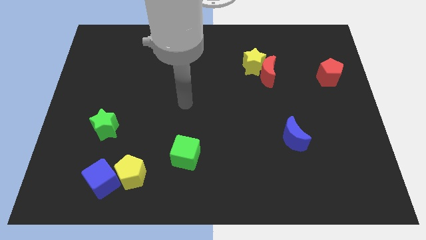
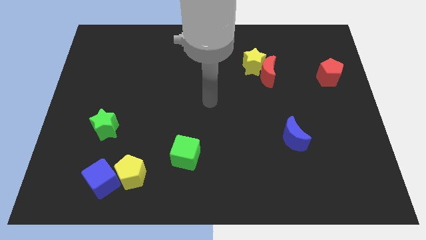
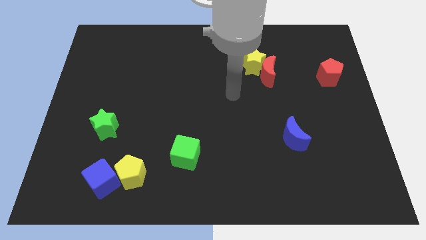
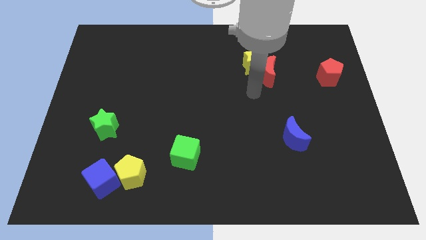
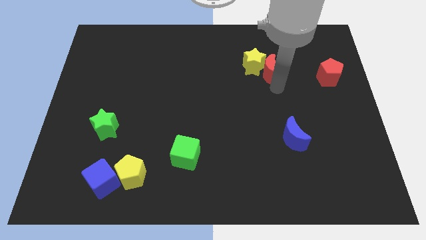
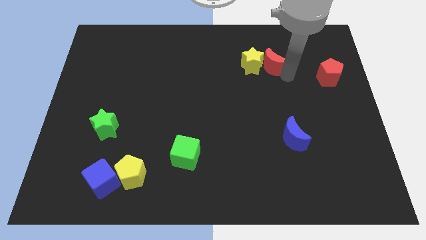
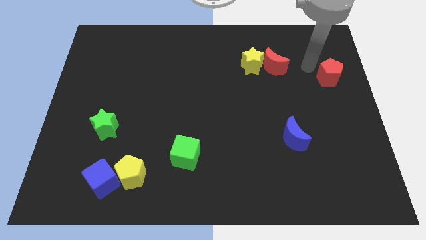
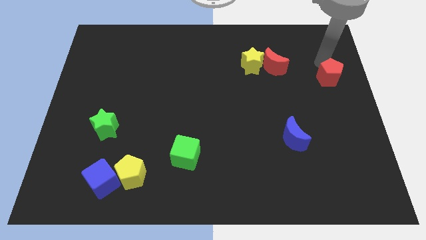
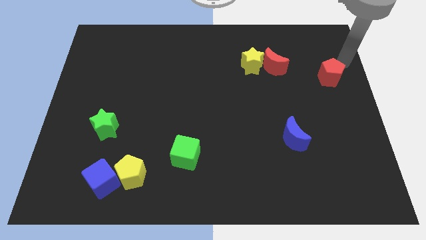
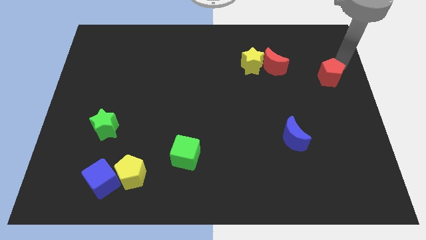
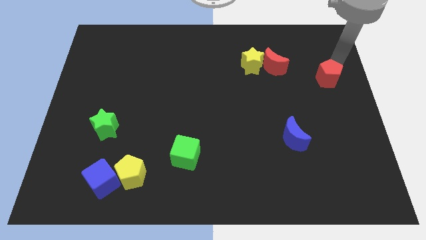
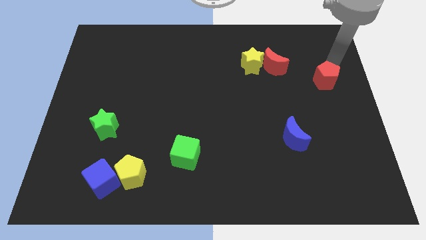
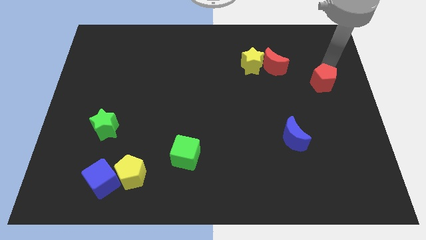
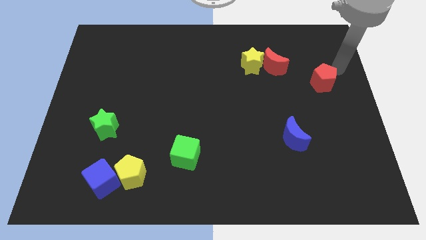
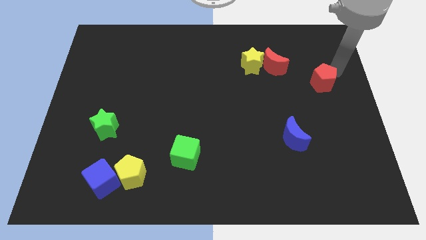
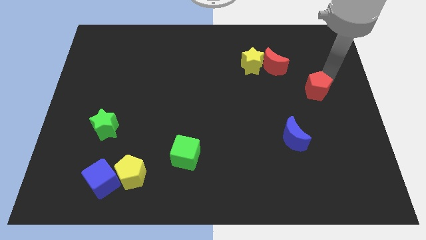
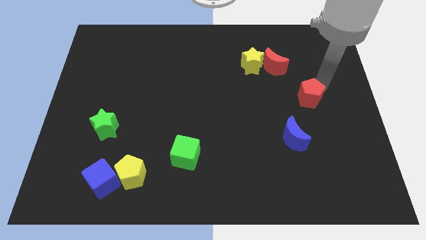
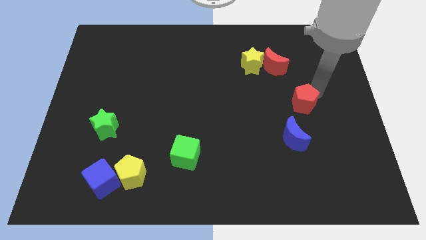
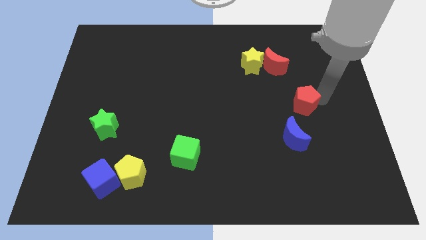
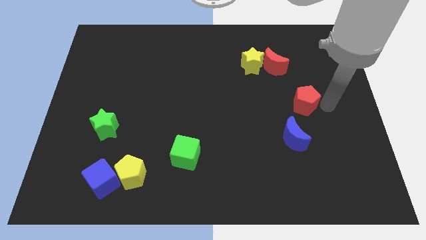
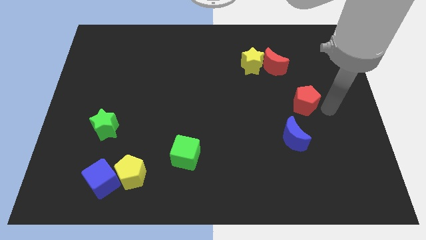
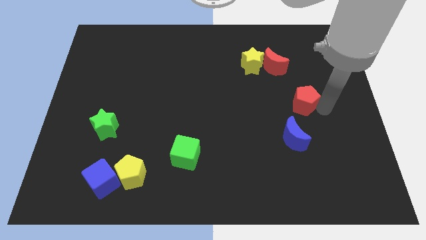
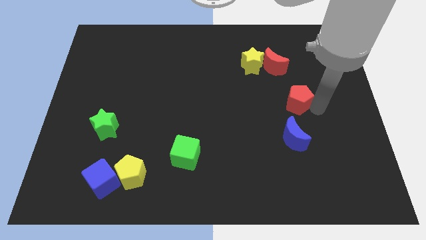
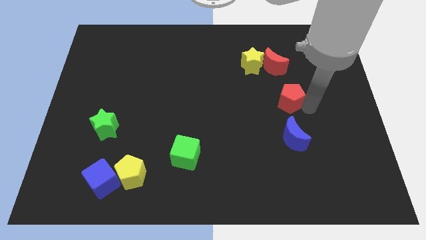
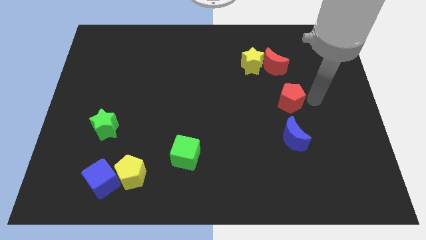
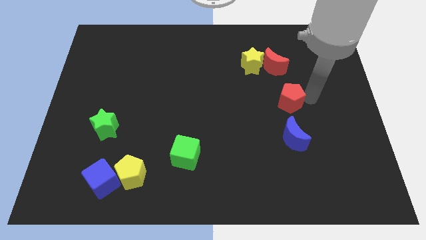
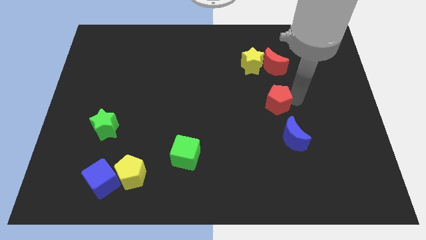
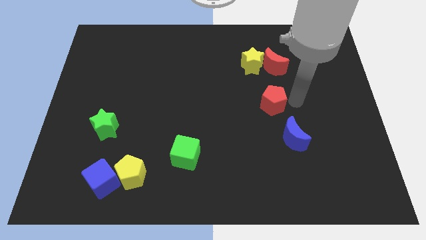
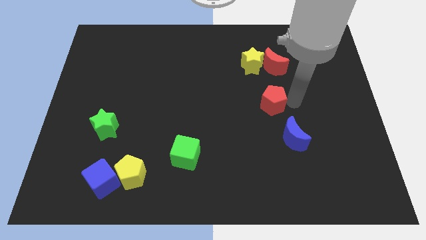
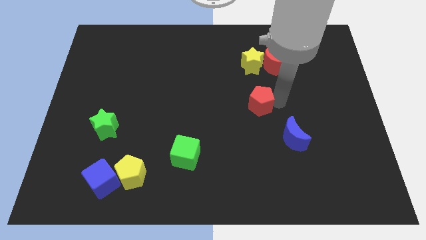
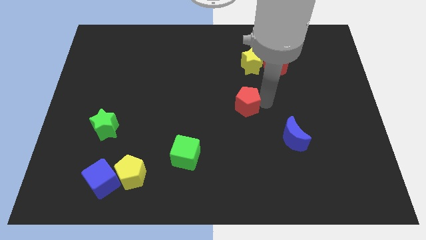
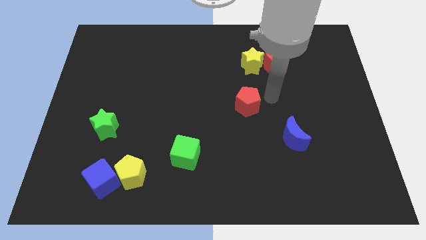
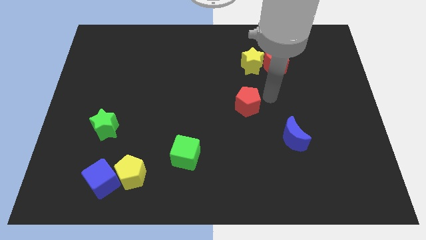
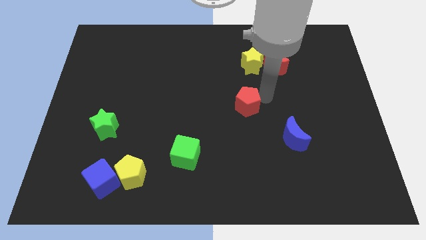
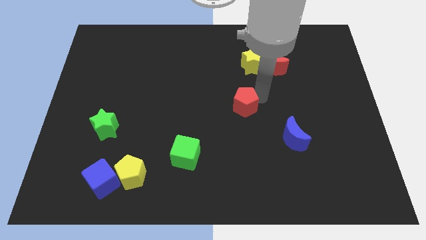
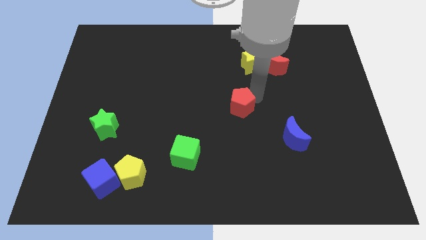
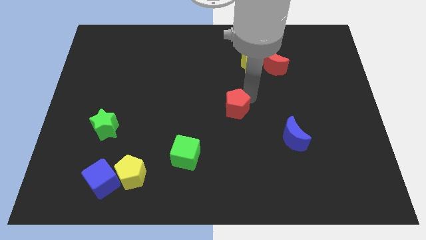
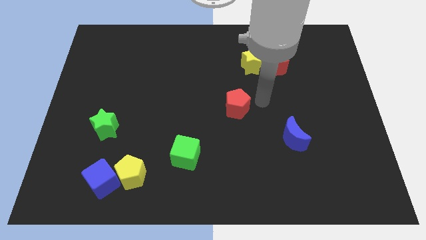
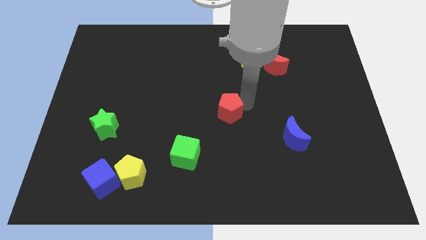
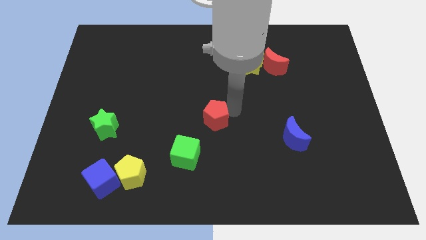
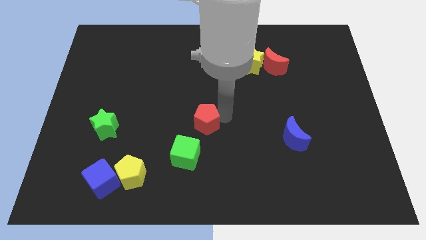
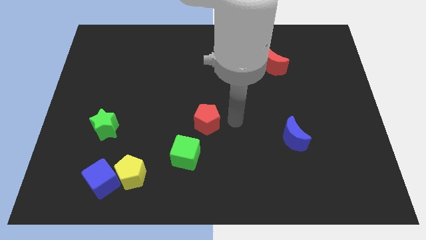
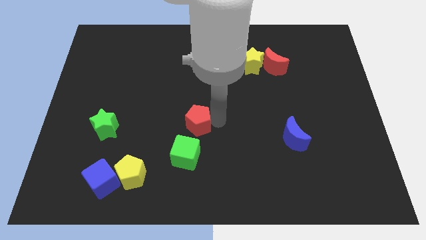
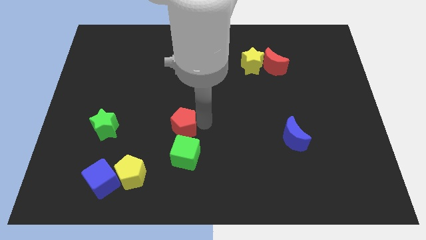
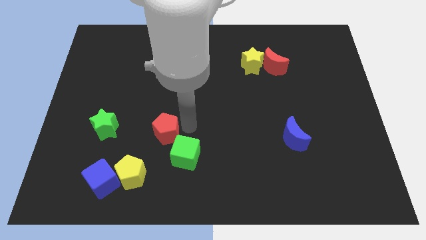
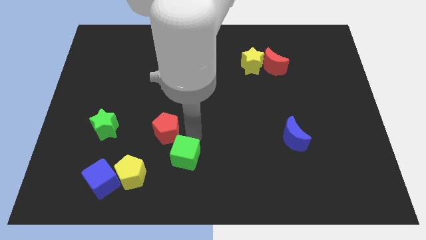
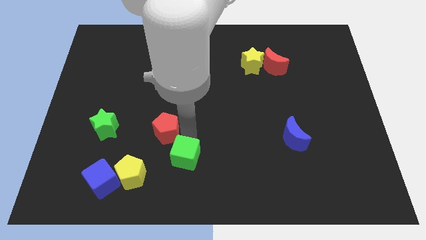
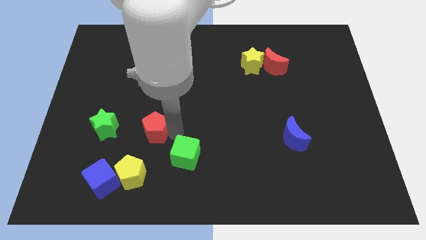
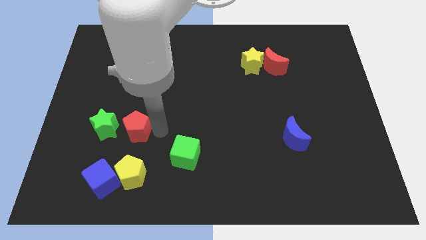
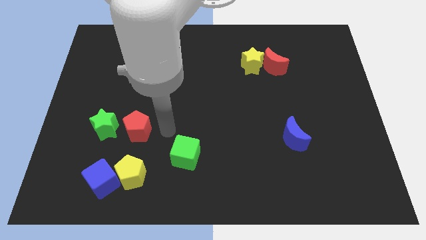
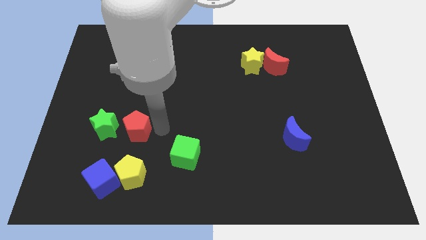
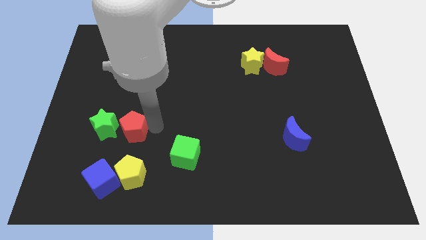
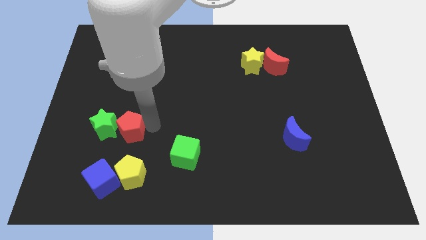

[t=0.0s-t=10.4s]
push the red pentagon next to the green star

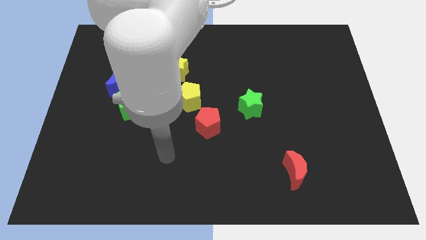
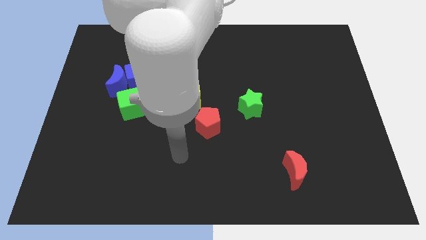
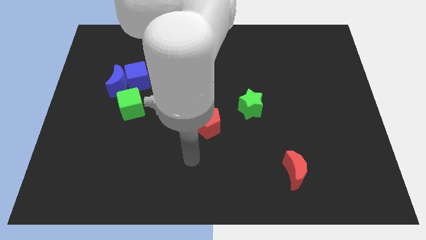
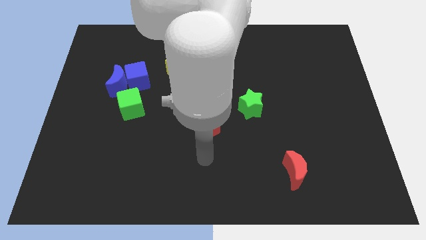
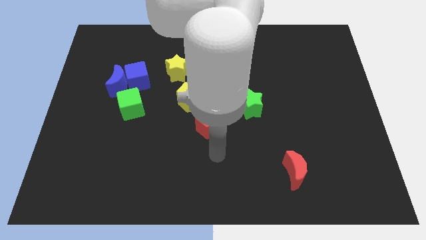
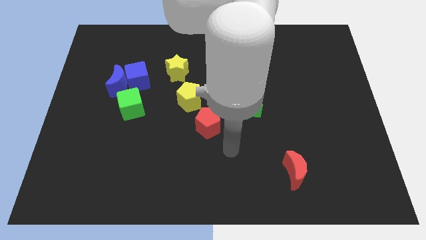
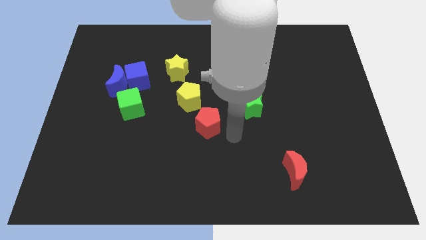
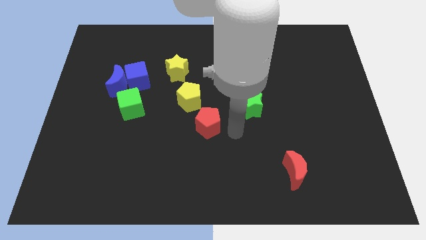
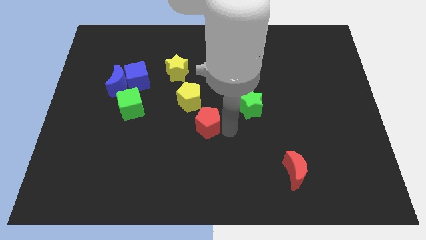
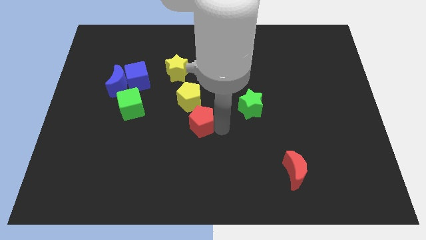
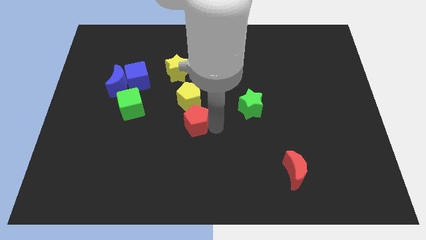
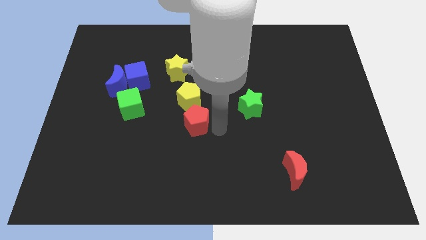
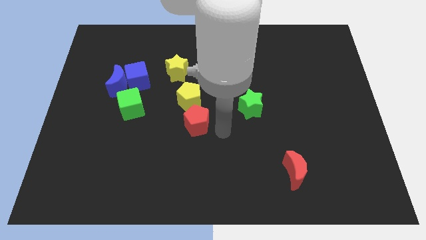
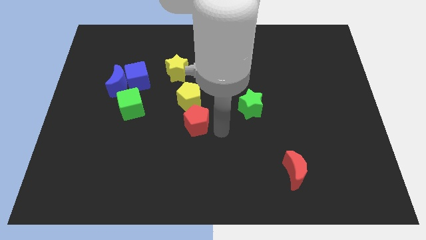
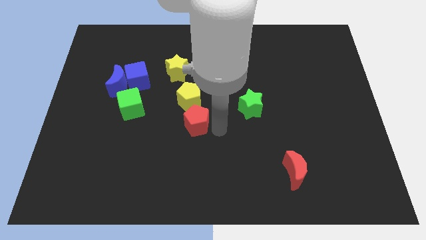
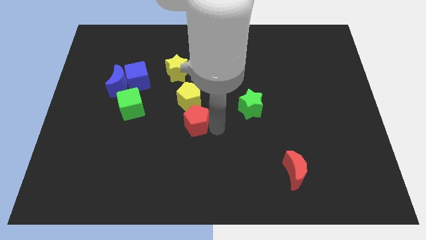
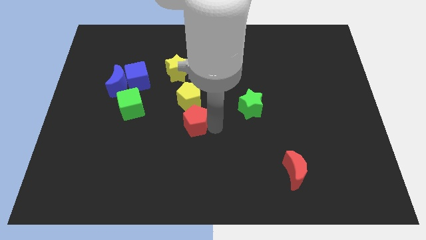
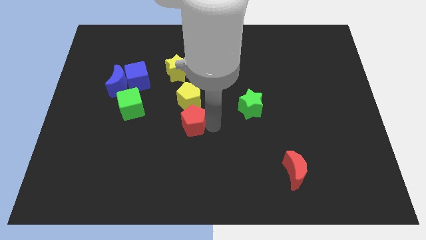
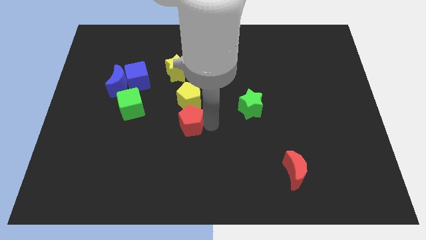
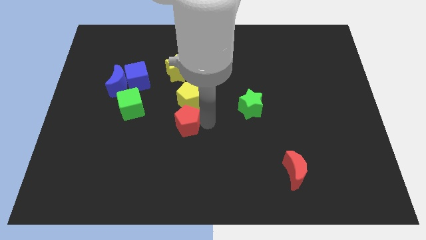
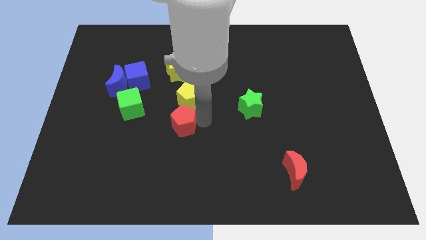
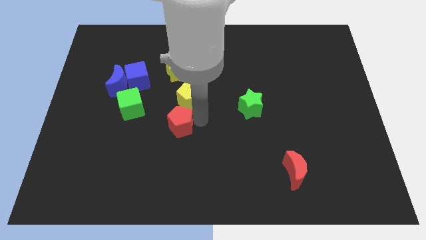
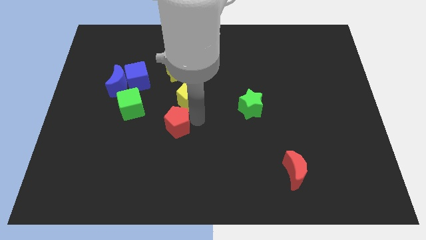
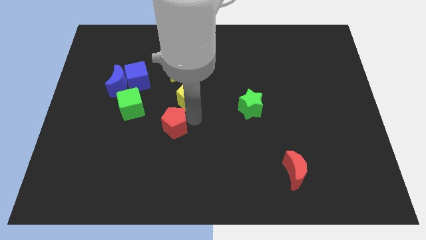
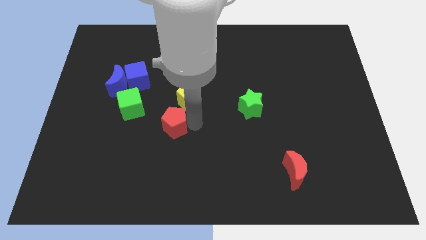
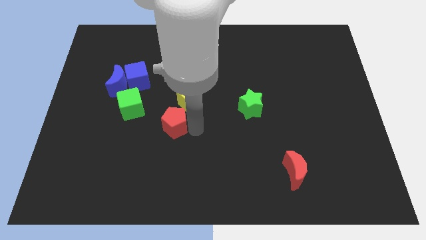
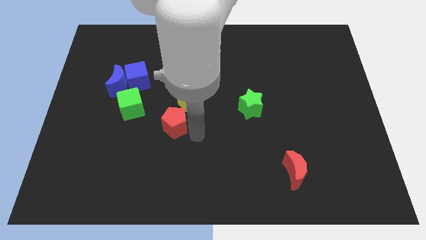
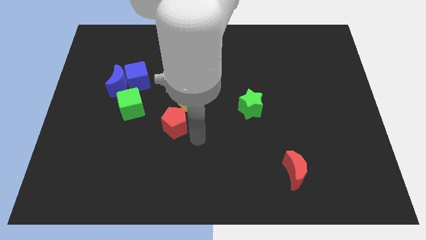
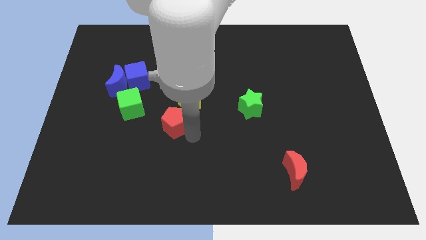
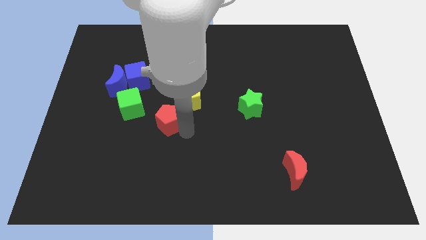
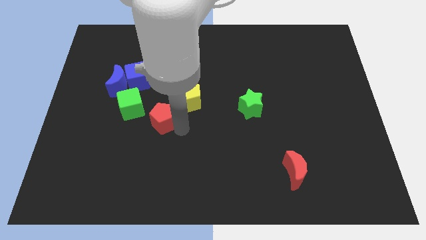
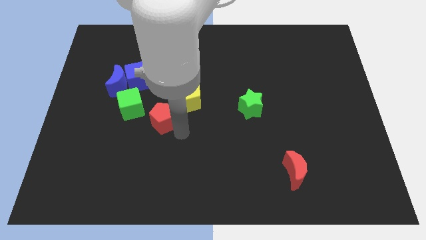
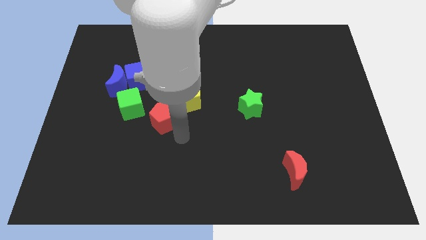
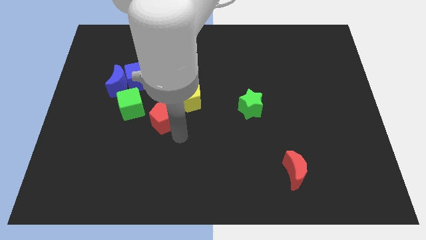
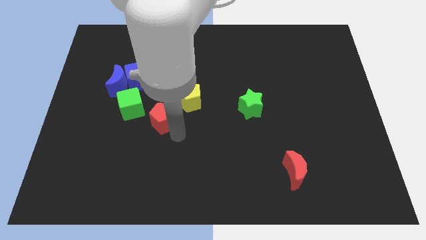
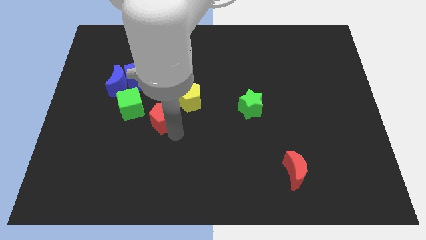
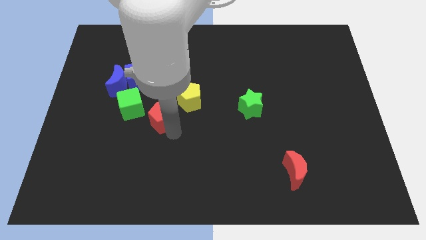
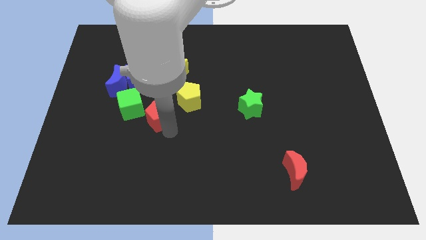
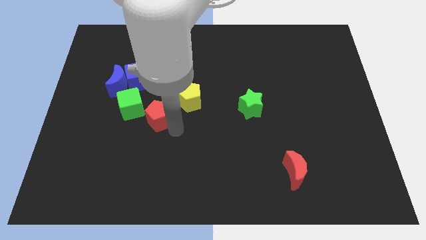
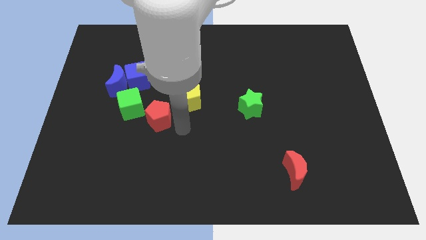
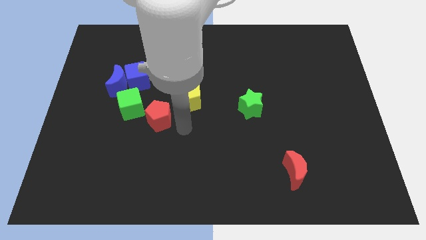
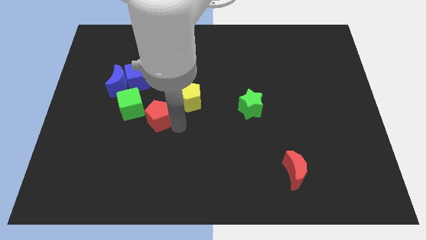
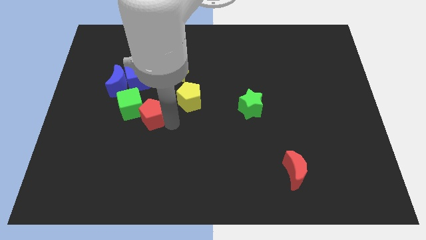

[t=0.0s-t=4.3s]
put the red pentagon next to the green cube
